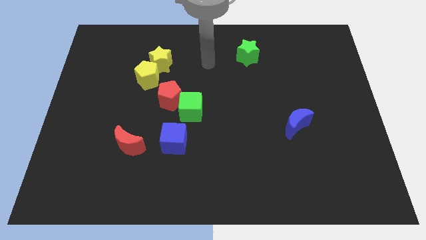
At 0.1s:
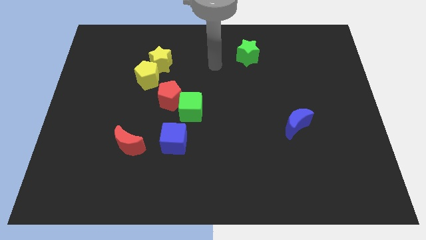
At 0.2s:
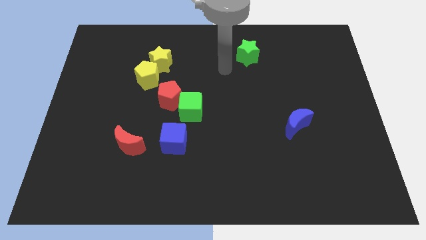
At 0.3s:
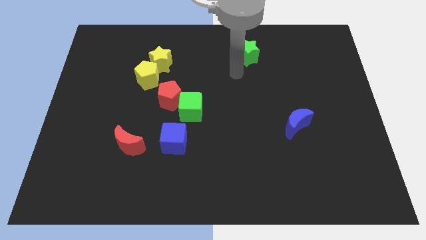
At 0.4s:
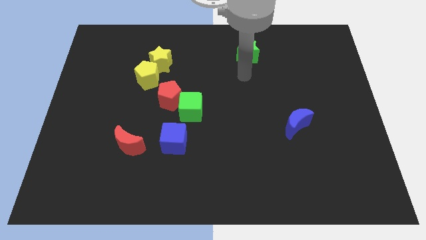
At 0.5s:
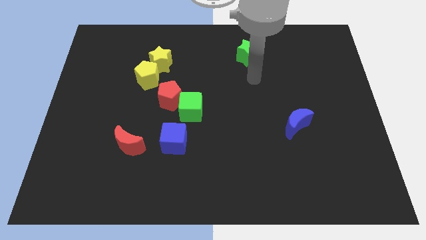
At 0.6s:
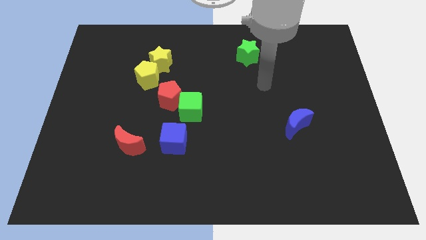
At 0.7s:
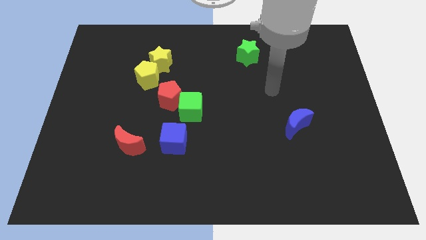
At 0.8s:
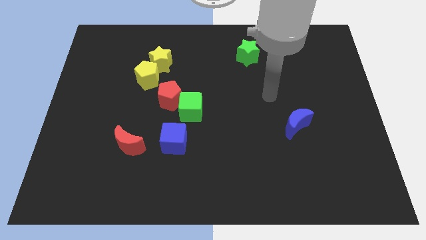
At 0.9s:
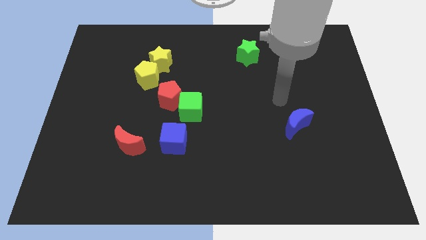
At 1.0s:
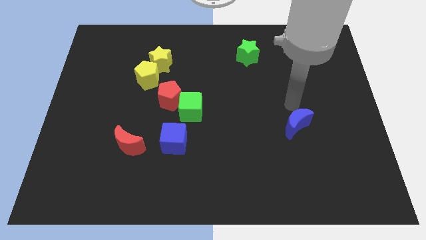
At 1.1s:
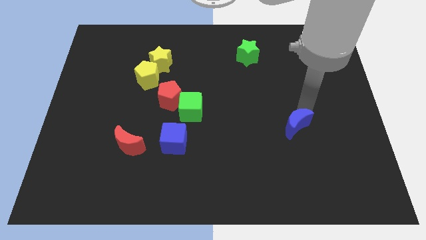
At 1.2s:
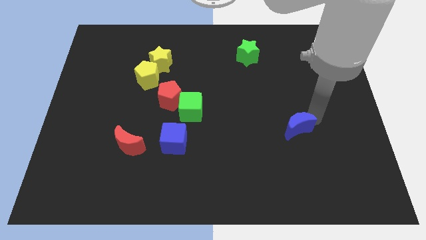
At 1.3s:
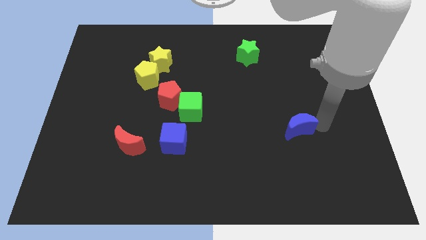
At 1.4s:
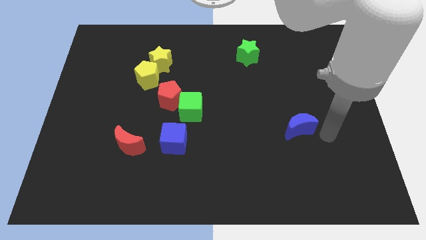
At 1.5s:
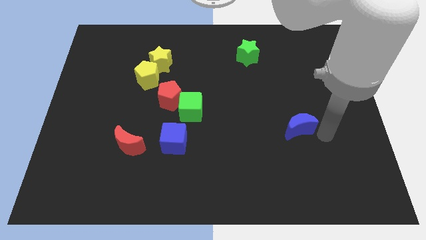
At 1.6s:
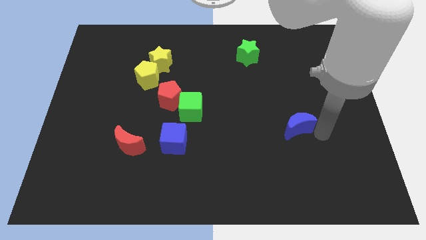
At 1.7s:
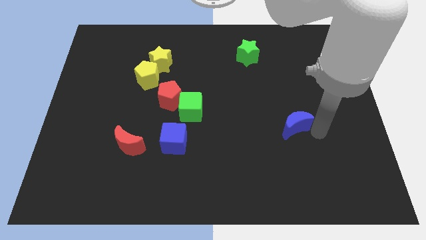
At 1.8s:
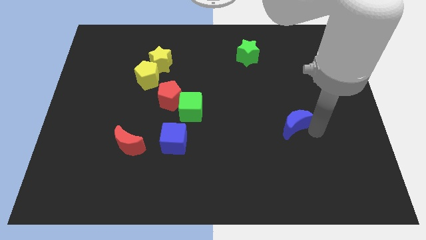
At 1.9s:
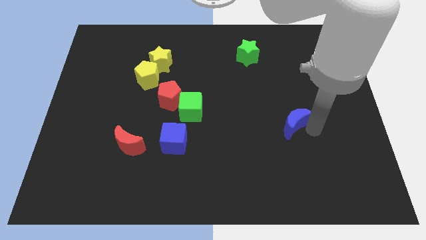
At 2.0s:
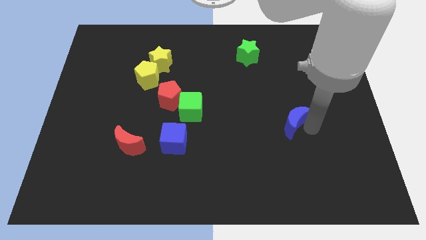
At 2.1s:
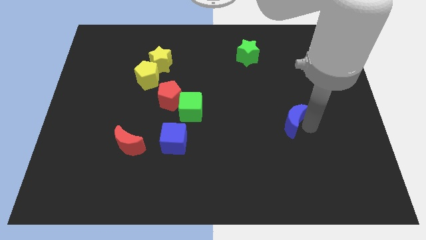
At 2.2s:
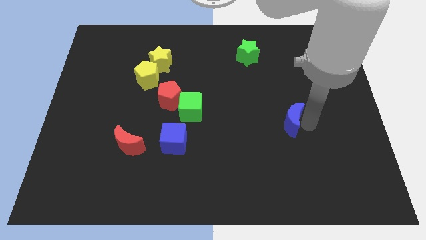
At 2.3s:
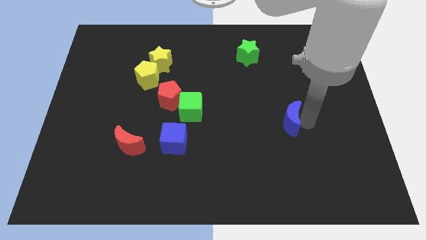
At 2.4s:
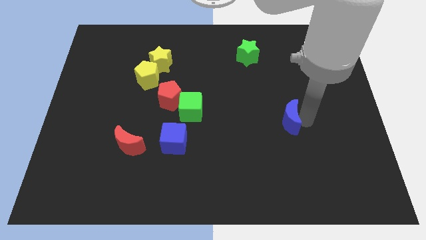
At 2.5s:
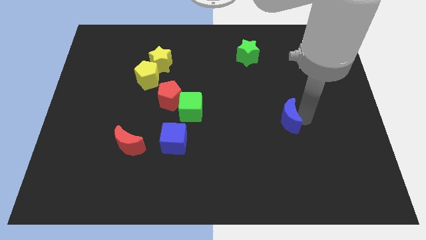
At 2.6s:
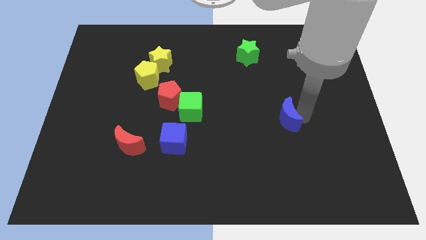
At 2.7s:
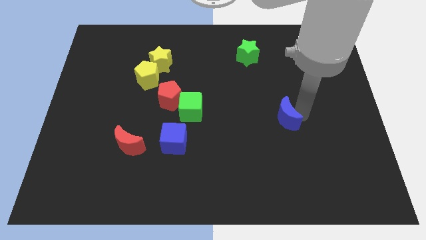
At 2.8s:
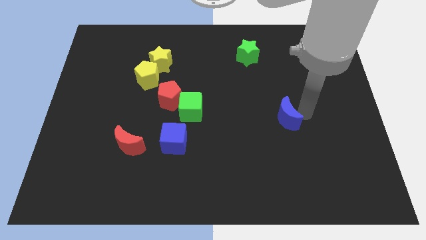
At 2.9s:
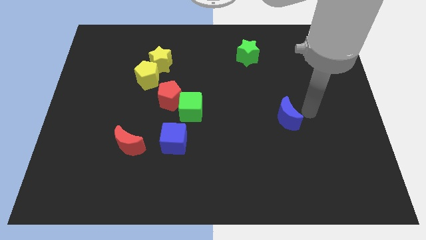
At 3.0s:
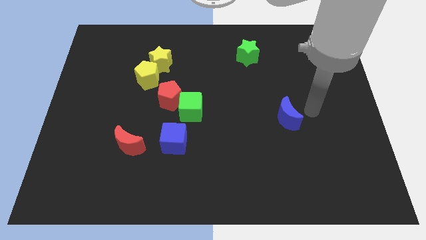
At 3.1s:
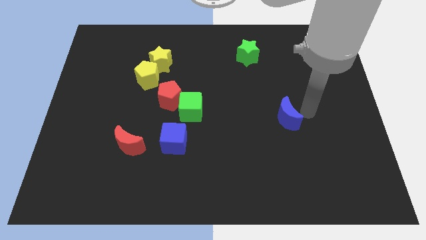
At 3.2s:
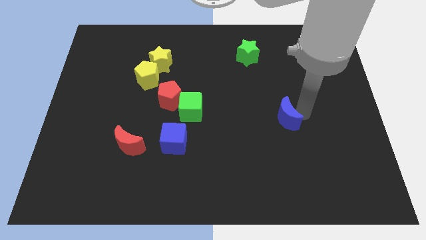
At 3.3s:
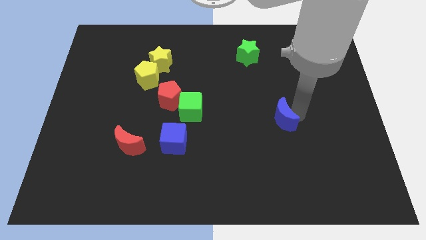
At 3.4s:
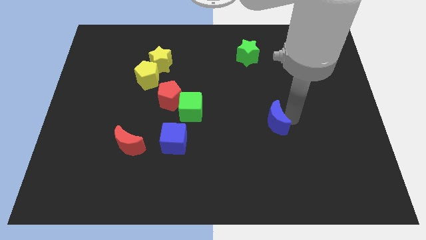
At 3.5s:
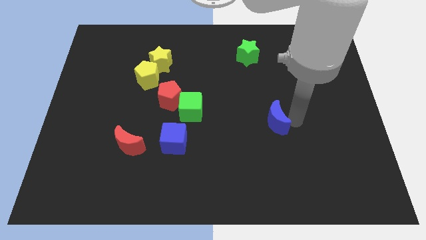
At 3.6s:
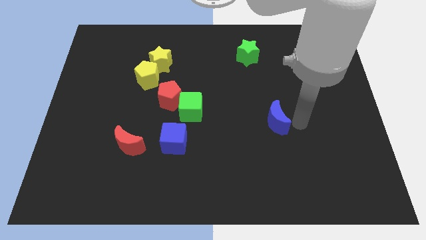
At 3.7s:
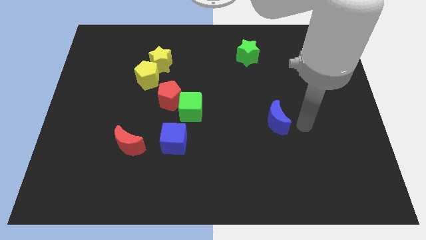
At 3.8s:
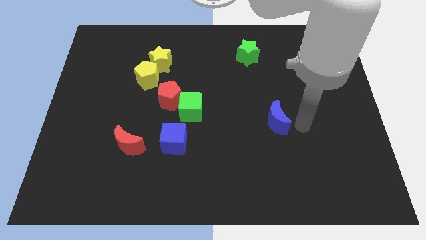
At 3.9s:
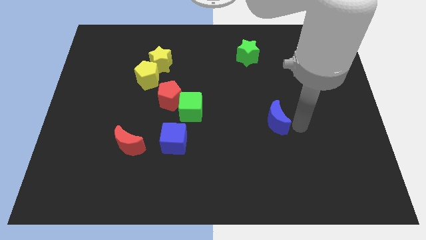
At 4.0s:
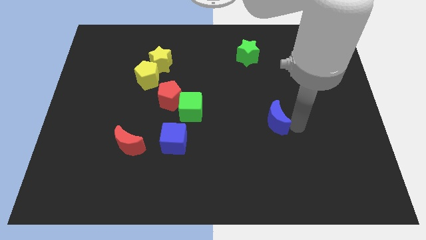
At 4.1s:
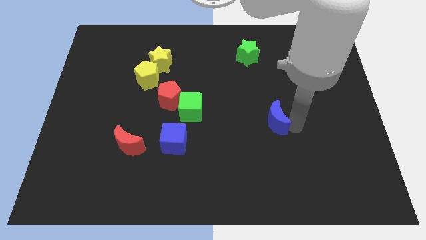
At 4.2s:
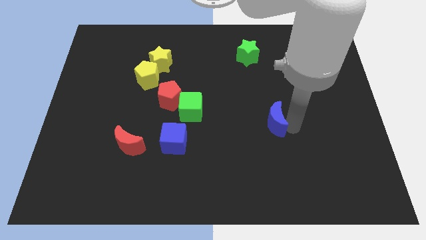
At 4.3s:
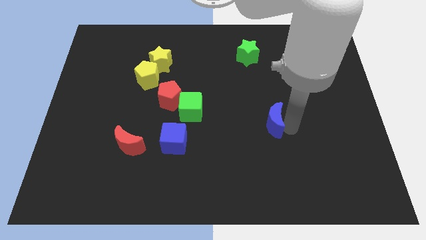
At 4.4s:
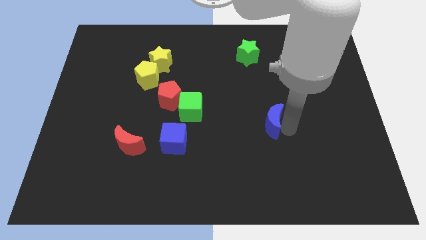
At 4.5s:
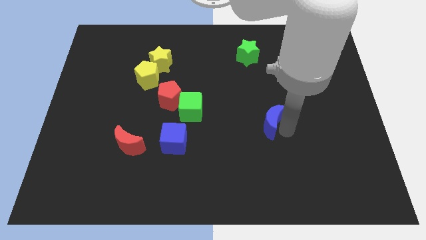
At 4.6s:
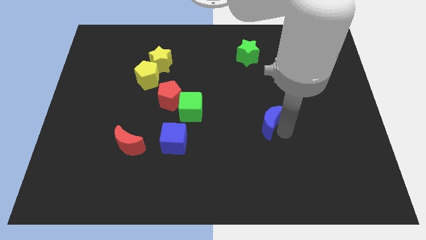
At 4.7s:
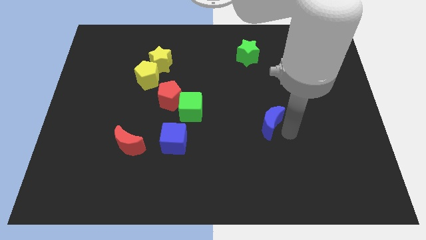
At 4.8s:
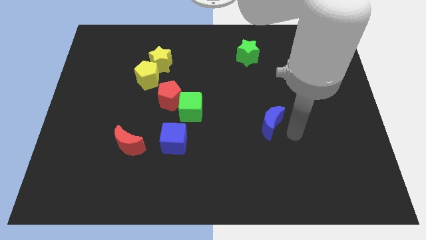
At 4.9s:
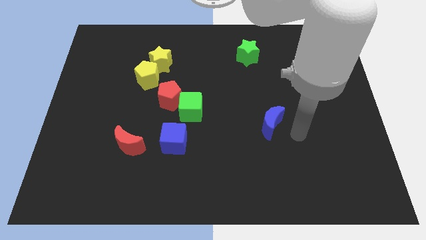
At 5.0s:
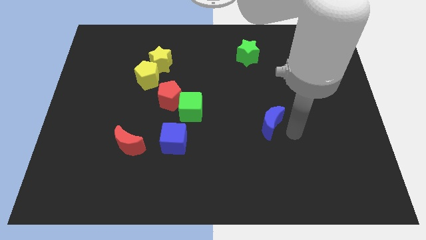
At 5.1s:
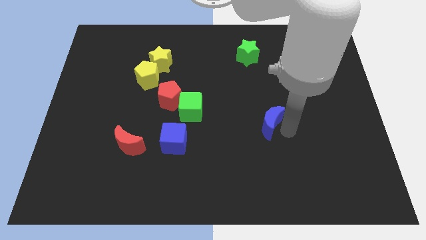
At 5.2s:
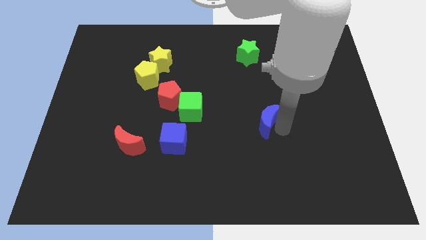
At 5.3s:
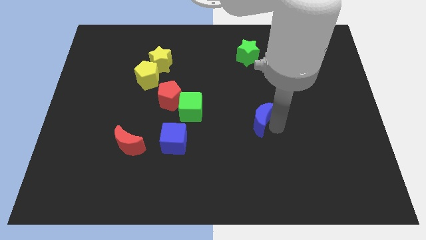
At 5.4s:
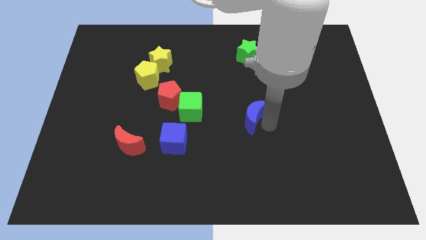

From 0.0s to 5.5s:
push the blue moon right of the green cube
